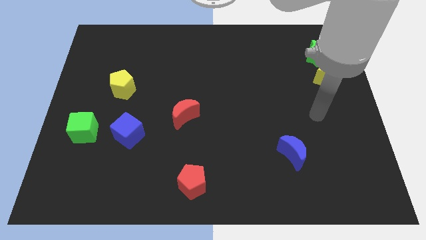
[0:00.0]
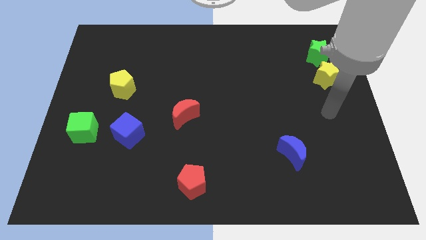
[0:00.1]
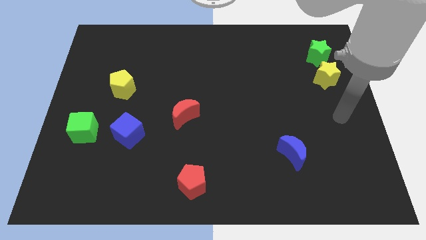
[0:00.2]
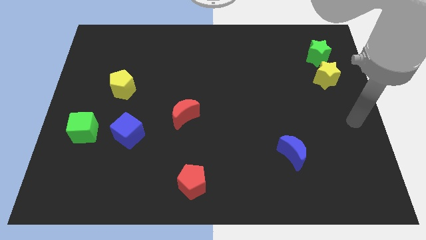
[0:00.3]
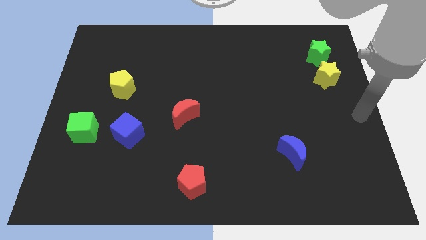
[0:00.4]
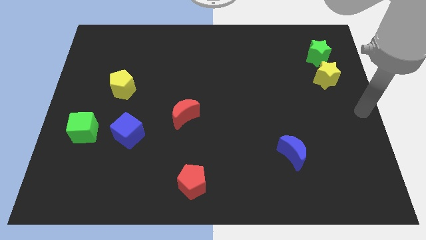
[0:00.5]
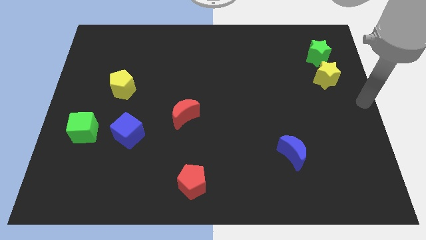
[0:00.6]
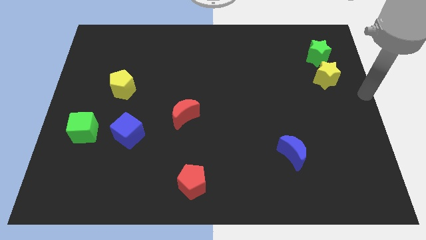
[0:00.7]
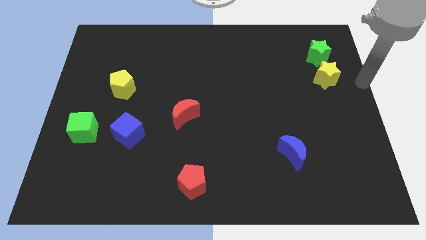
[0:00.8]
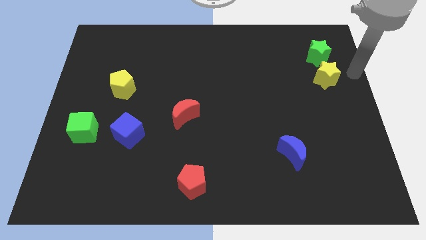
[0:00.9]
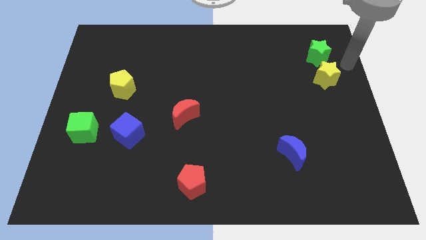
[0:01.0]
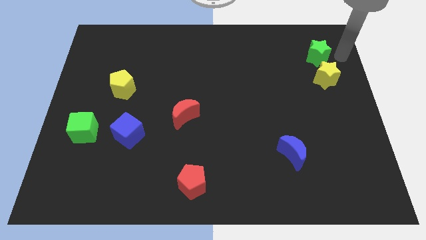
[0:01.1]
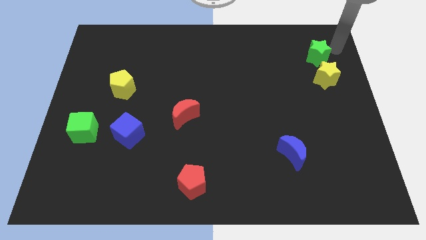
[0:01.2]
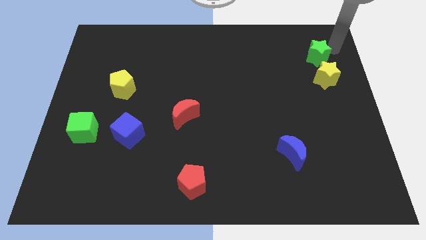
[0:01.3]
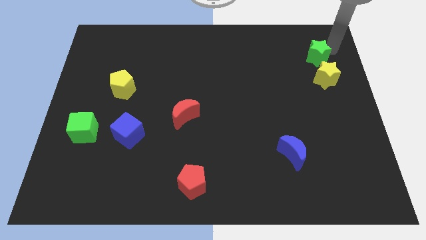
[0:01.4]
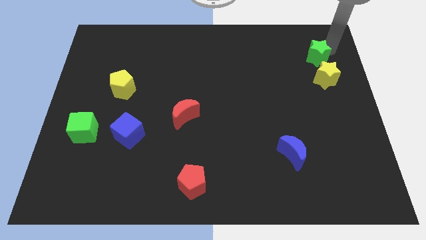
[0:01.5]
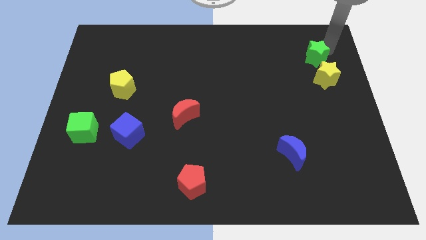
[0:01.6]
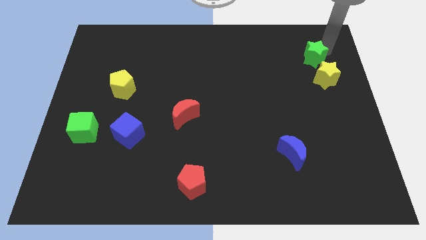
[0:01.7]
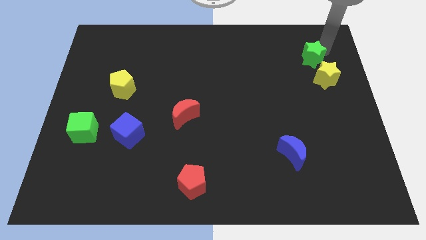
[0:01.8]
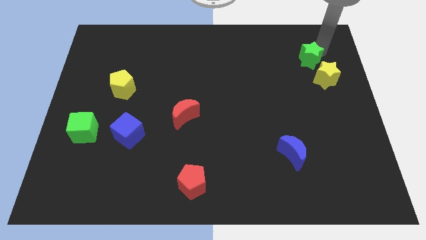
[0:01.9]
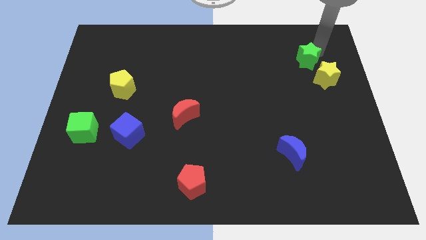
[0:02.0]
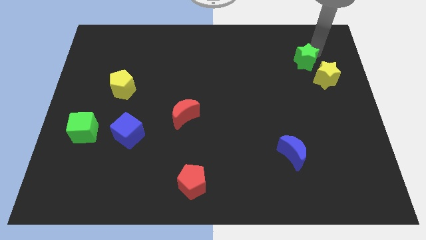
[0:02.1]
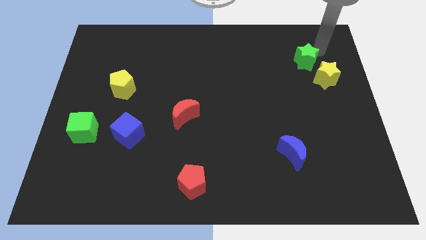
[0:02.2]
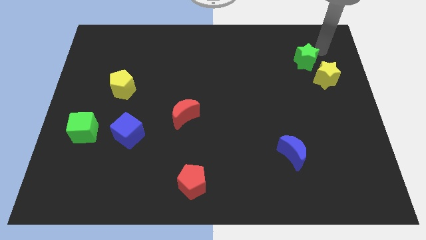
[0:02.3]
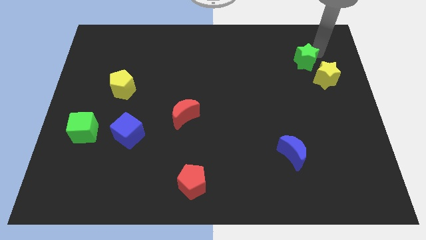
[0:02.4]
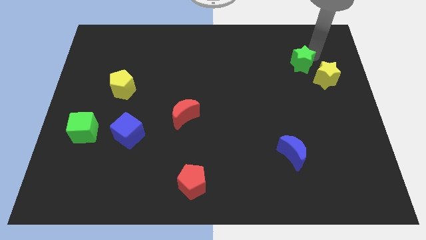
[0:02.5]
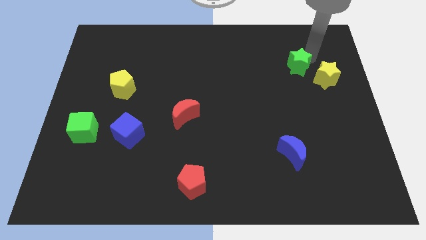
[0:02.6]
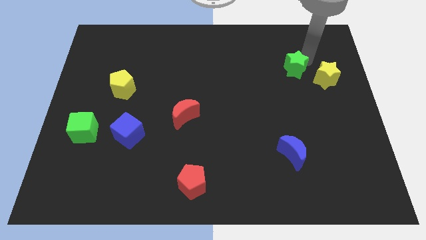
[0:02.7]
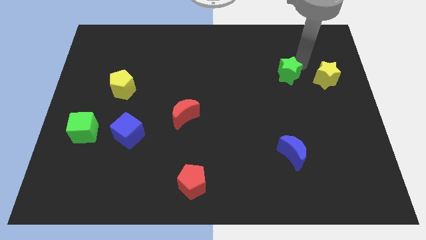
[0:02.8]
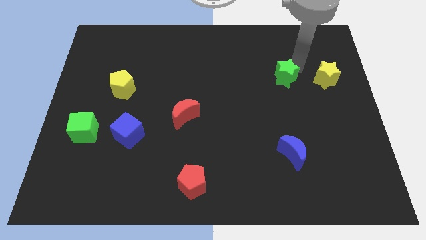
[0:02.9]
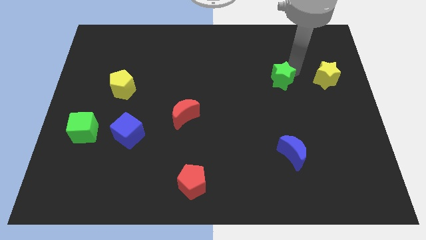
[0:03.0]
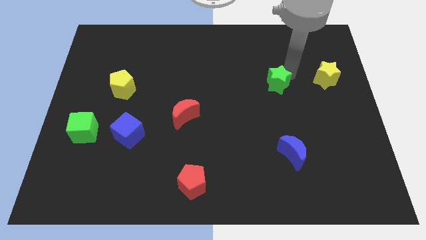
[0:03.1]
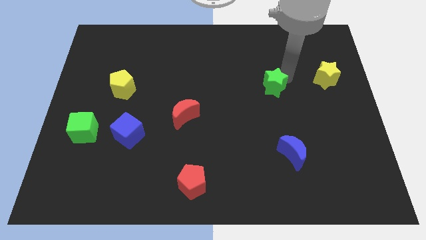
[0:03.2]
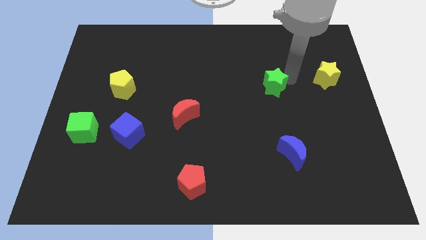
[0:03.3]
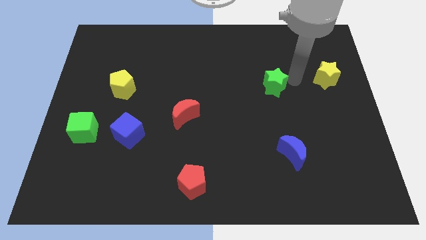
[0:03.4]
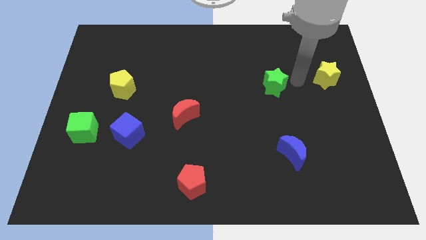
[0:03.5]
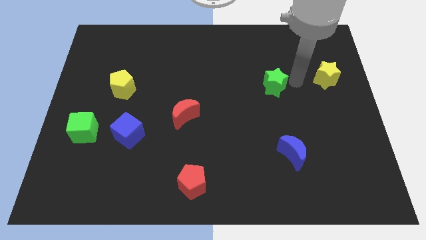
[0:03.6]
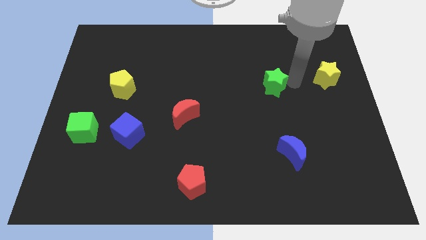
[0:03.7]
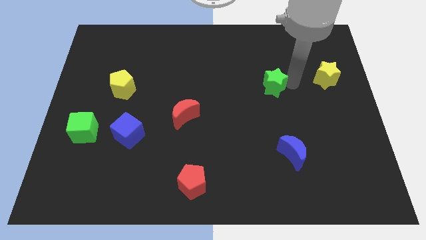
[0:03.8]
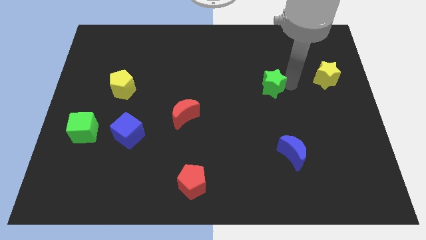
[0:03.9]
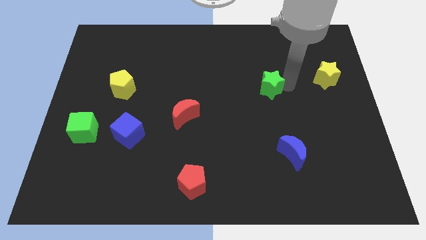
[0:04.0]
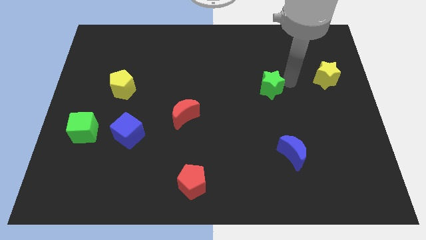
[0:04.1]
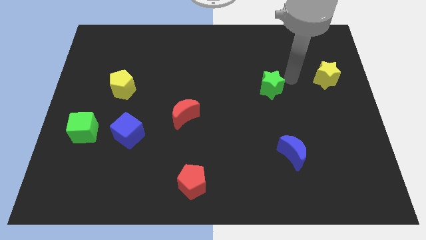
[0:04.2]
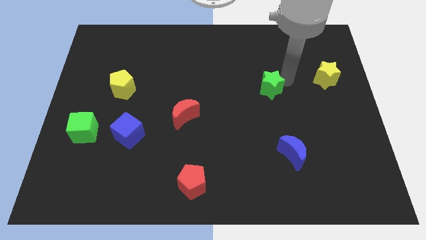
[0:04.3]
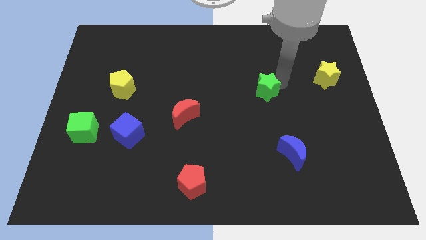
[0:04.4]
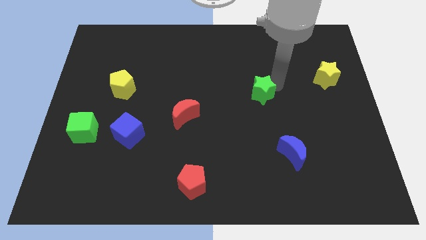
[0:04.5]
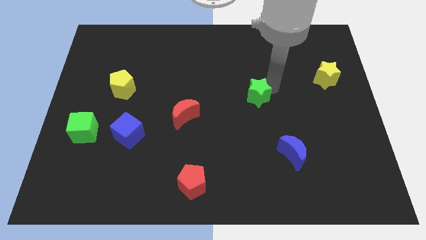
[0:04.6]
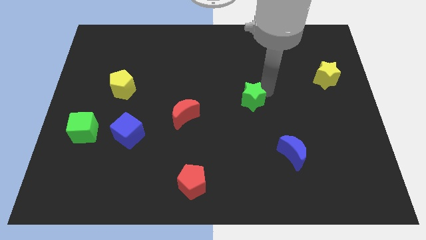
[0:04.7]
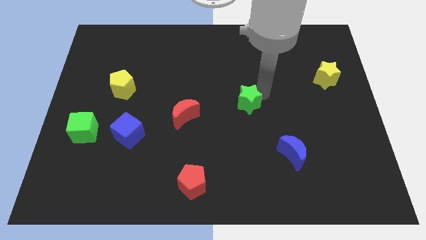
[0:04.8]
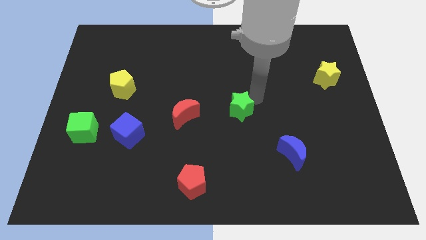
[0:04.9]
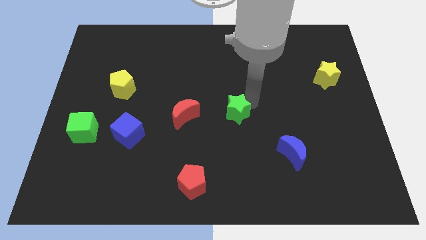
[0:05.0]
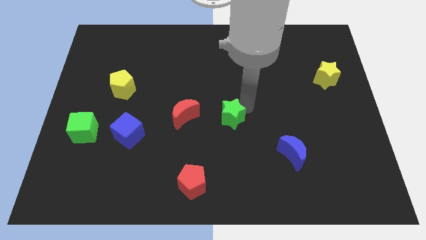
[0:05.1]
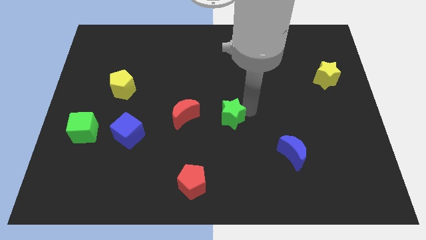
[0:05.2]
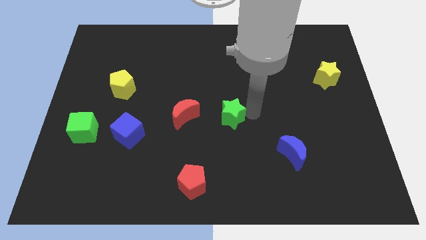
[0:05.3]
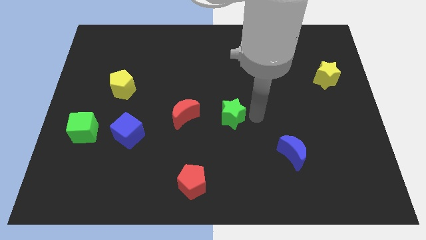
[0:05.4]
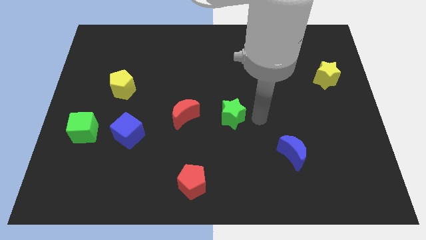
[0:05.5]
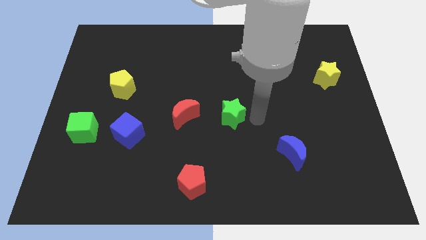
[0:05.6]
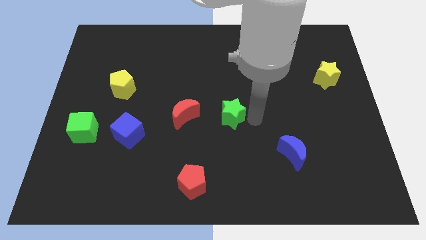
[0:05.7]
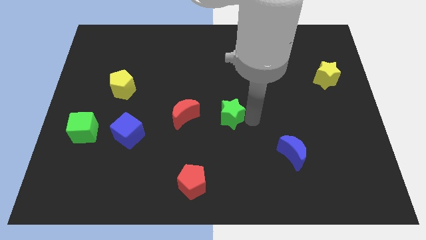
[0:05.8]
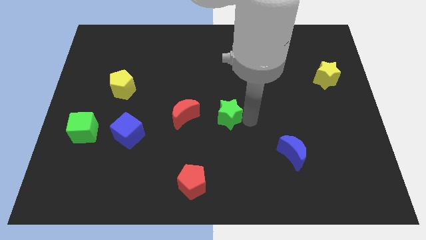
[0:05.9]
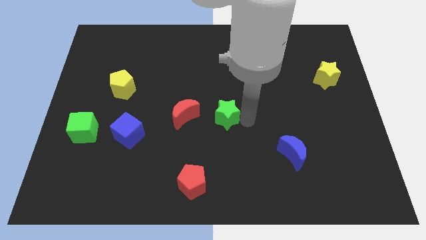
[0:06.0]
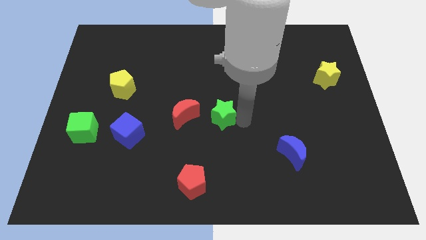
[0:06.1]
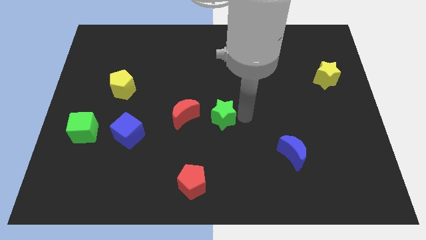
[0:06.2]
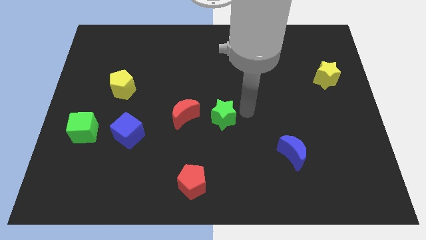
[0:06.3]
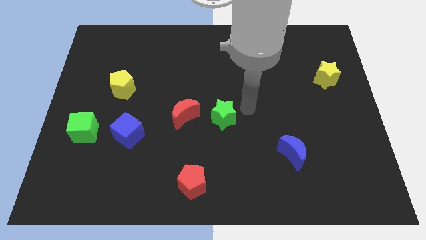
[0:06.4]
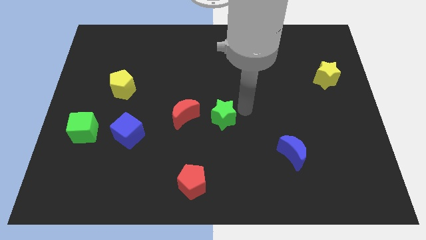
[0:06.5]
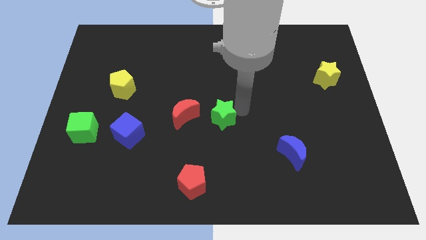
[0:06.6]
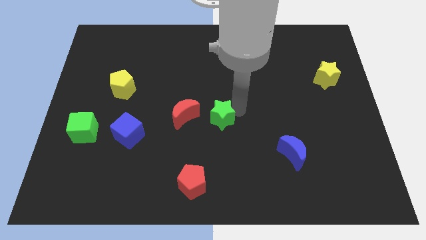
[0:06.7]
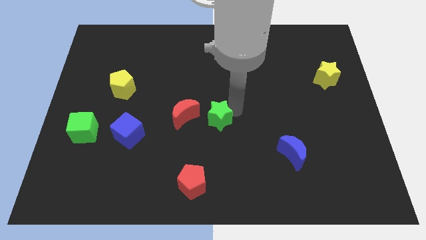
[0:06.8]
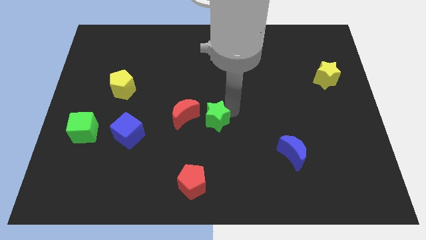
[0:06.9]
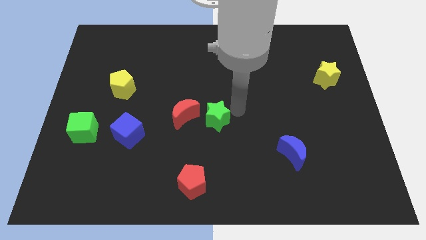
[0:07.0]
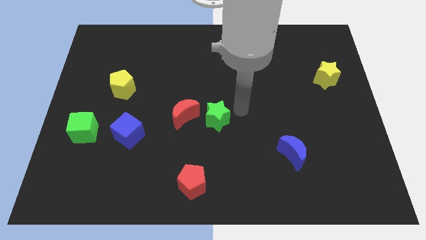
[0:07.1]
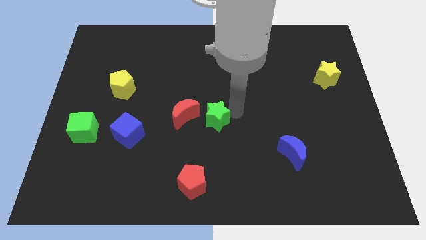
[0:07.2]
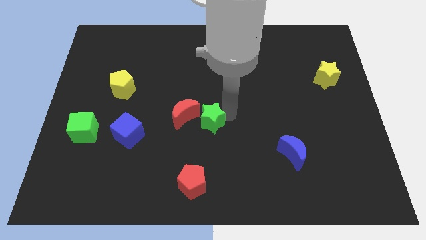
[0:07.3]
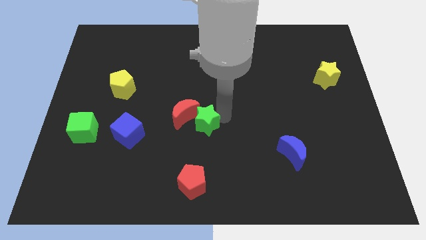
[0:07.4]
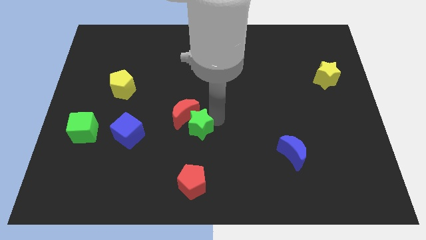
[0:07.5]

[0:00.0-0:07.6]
slide the green star right of the blue cube
